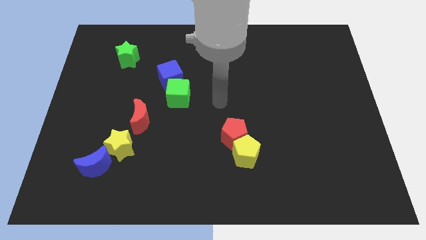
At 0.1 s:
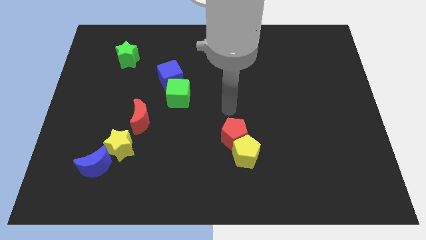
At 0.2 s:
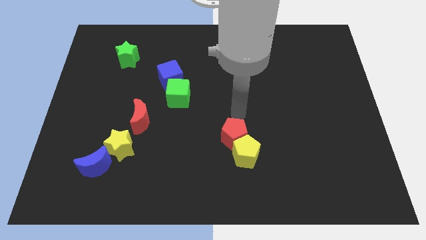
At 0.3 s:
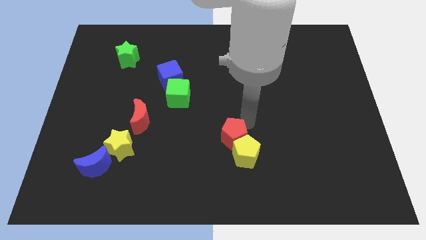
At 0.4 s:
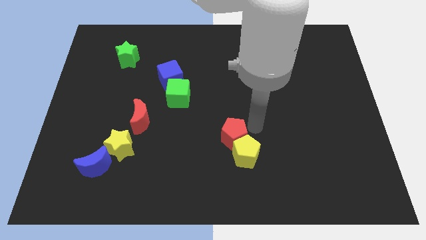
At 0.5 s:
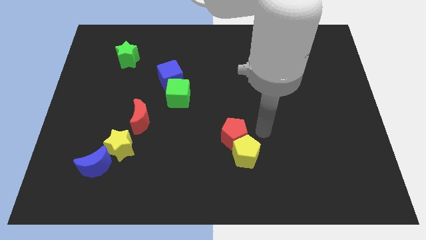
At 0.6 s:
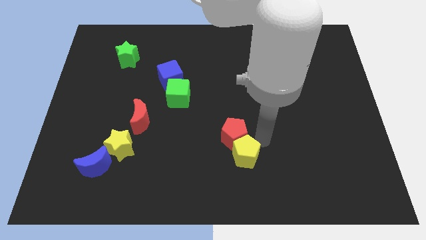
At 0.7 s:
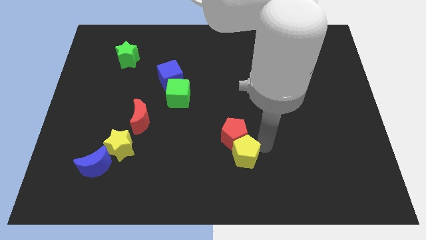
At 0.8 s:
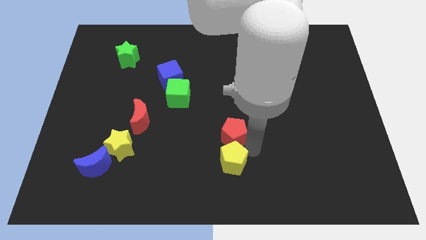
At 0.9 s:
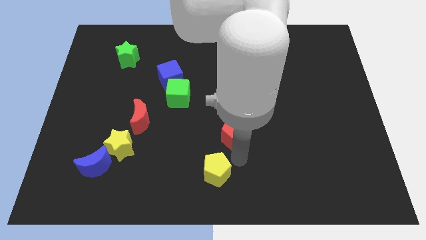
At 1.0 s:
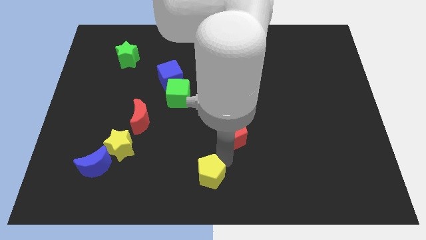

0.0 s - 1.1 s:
move the red pentagon away from the yellow pentagon

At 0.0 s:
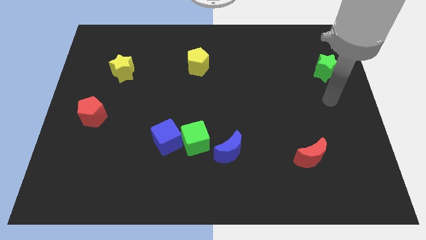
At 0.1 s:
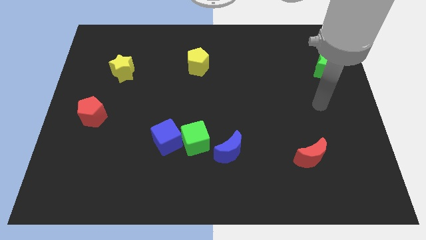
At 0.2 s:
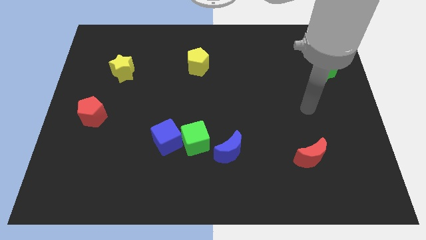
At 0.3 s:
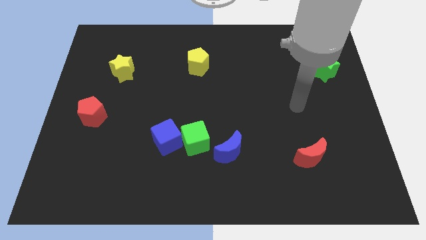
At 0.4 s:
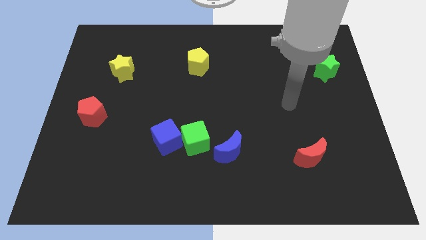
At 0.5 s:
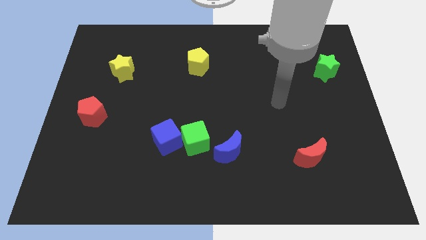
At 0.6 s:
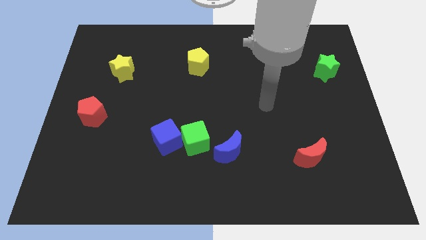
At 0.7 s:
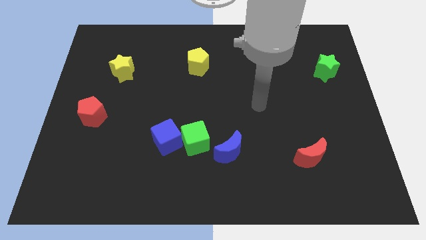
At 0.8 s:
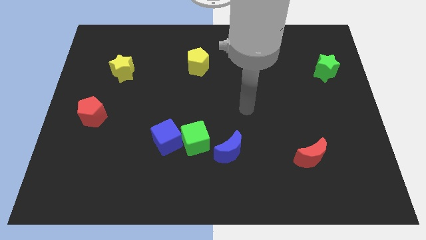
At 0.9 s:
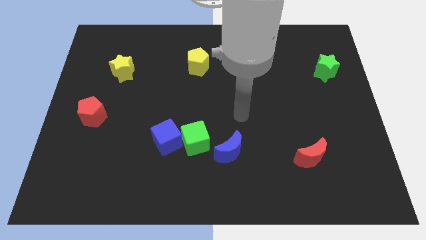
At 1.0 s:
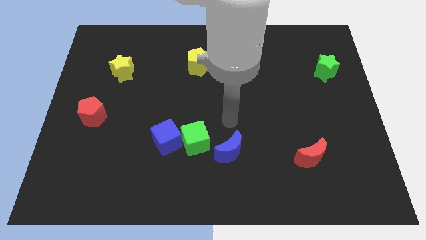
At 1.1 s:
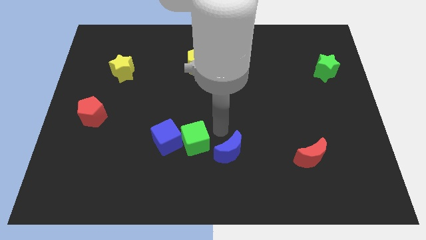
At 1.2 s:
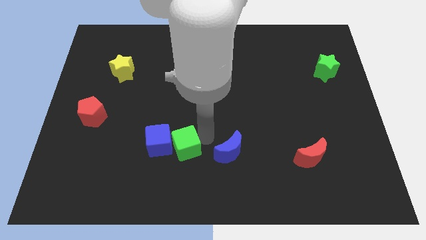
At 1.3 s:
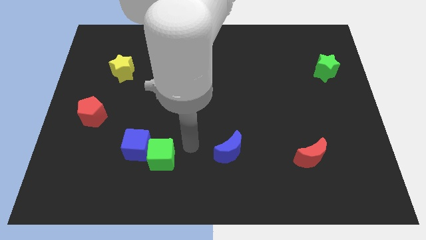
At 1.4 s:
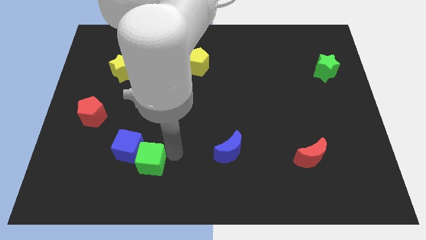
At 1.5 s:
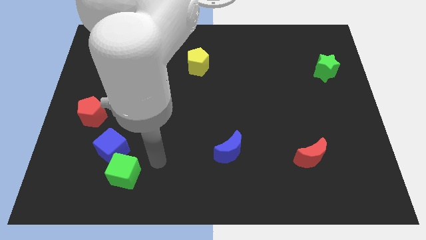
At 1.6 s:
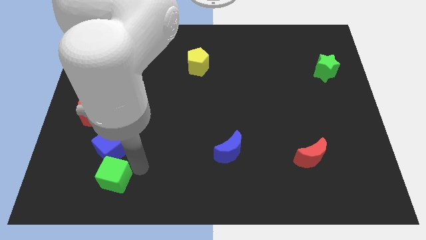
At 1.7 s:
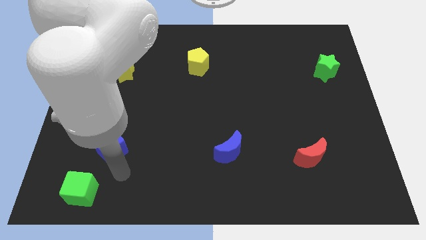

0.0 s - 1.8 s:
move the blue cube away from the green cube

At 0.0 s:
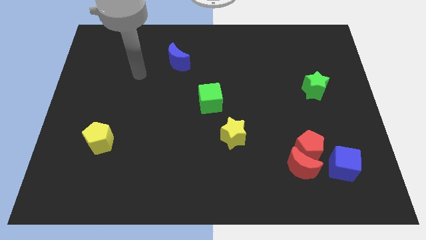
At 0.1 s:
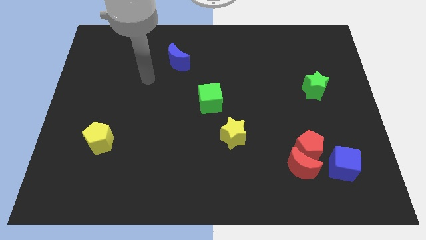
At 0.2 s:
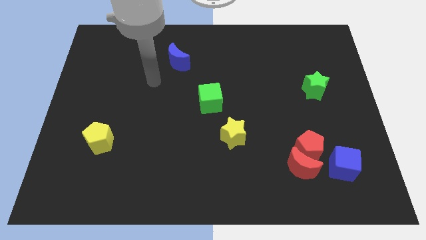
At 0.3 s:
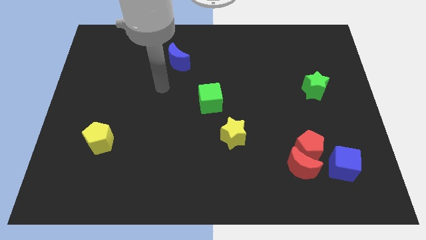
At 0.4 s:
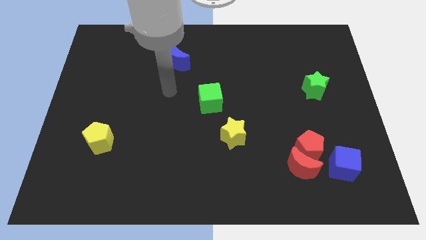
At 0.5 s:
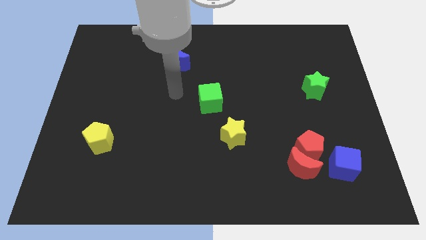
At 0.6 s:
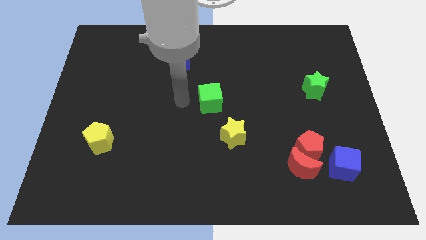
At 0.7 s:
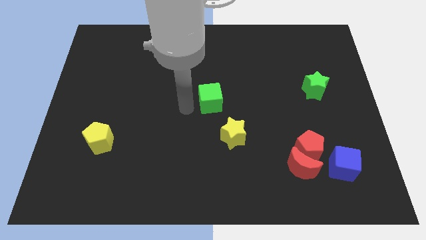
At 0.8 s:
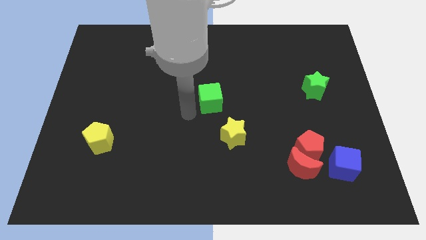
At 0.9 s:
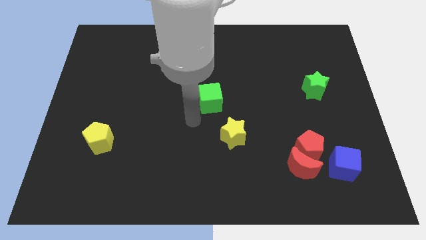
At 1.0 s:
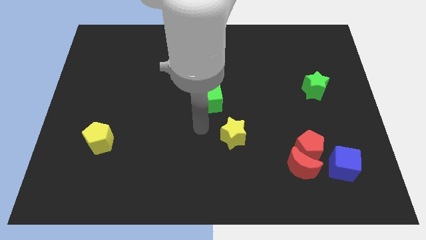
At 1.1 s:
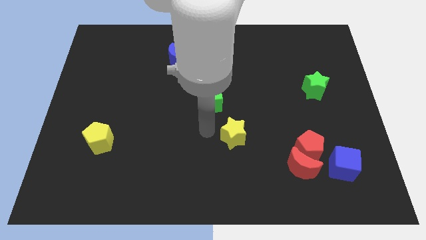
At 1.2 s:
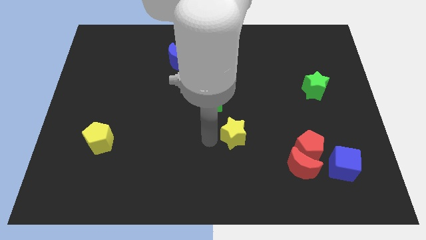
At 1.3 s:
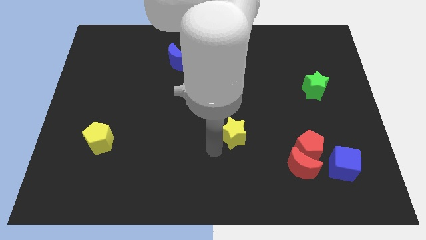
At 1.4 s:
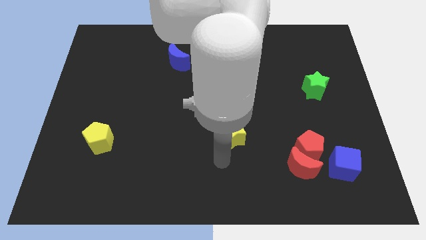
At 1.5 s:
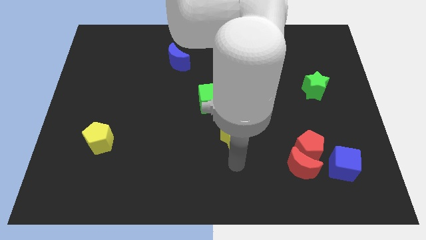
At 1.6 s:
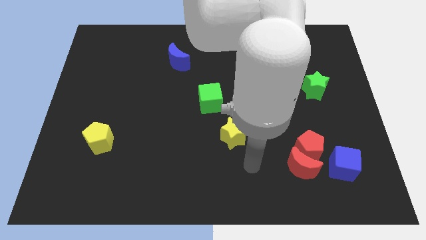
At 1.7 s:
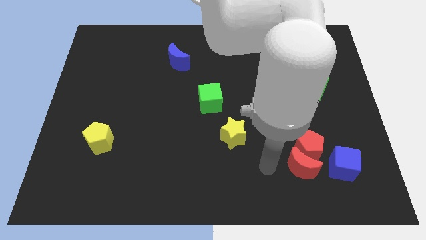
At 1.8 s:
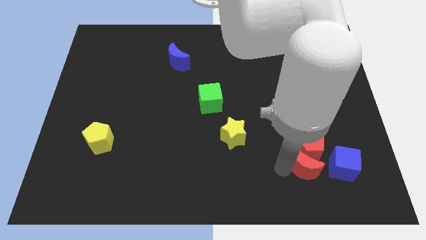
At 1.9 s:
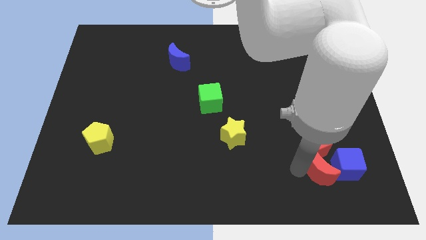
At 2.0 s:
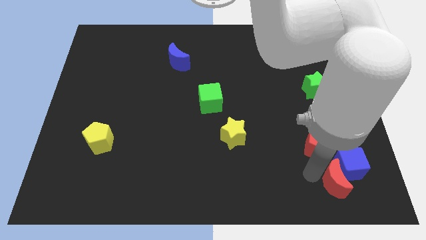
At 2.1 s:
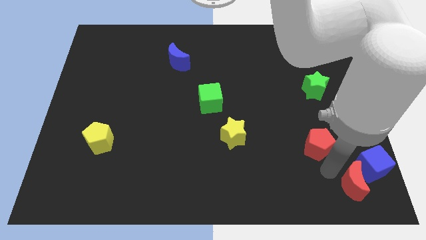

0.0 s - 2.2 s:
pull the red pentagon apart from the red moon and blue cube

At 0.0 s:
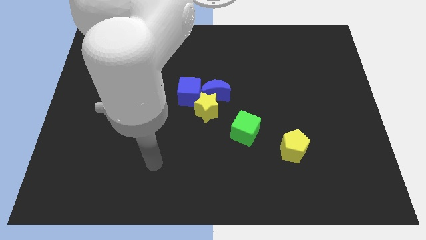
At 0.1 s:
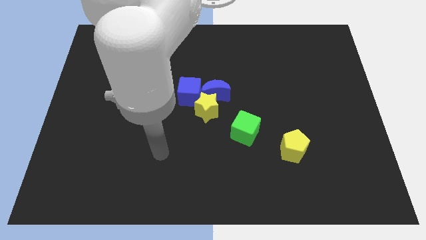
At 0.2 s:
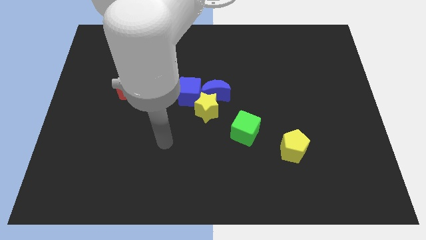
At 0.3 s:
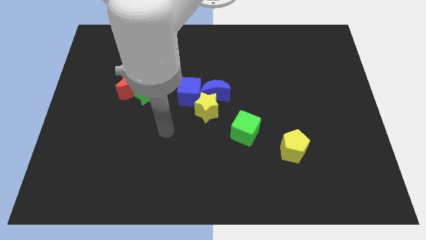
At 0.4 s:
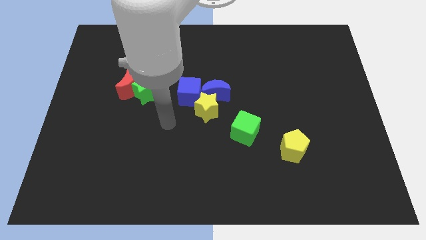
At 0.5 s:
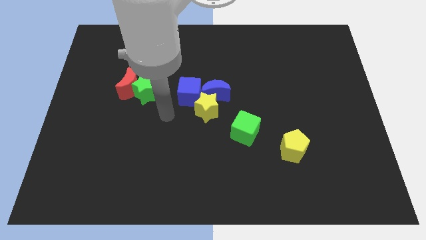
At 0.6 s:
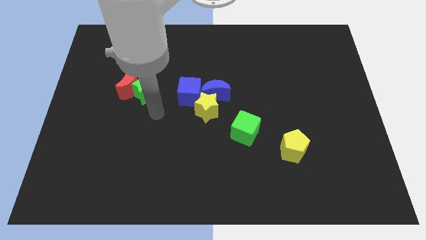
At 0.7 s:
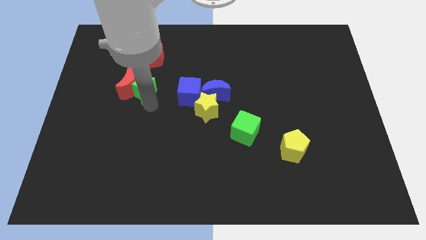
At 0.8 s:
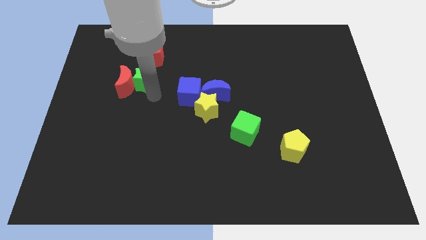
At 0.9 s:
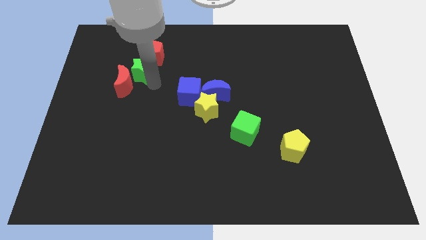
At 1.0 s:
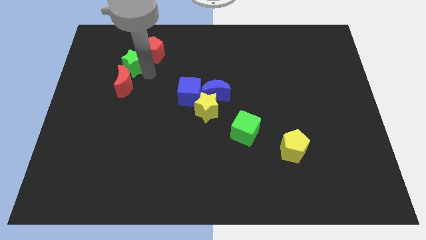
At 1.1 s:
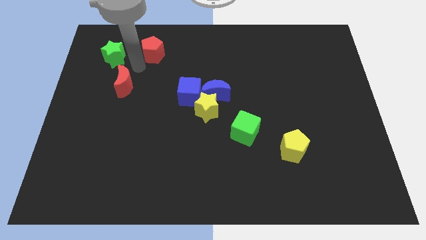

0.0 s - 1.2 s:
pull the red moon apart from the green star

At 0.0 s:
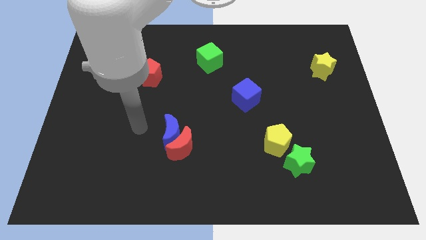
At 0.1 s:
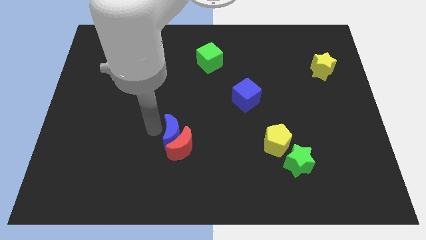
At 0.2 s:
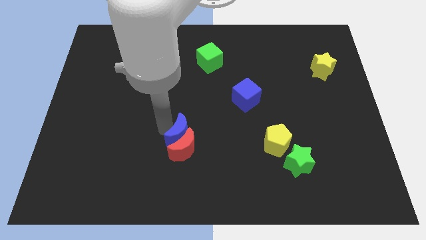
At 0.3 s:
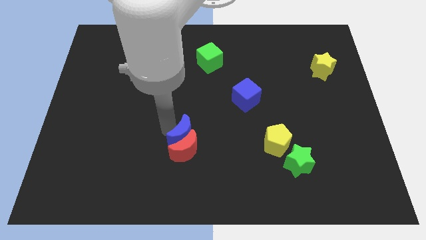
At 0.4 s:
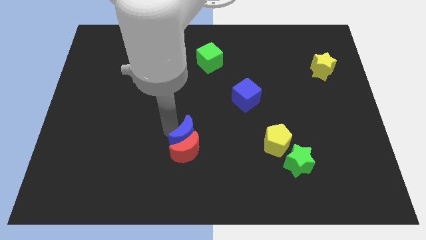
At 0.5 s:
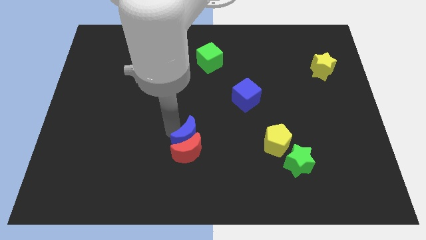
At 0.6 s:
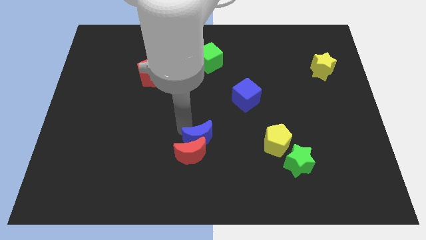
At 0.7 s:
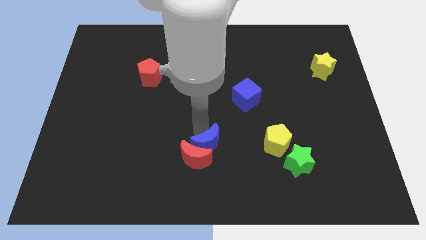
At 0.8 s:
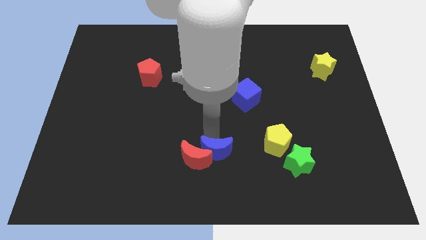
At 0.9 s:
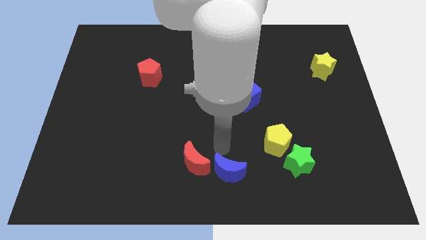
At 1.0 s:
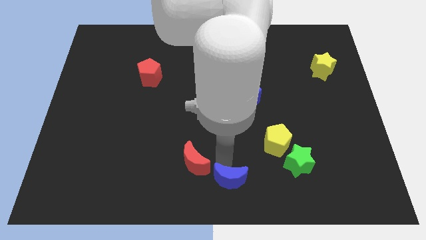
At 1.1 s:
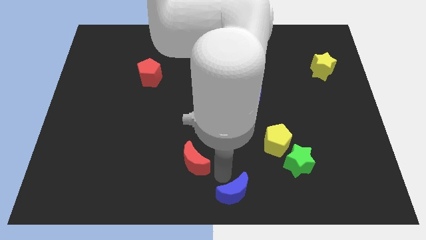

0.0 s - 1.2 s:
pull the red moon apart from the blue moon

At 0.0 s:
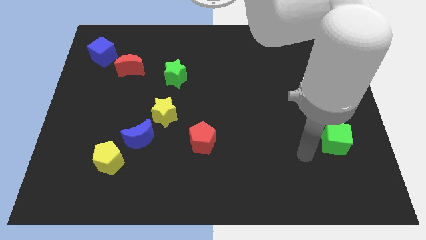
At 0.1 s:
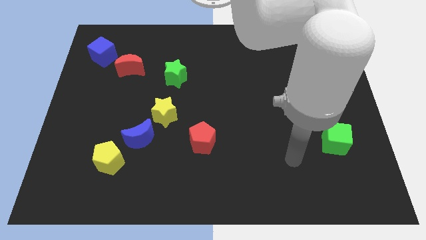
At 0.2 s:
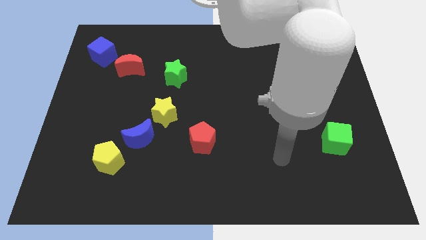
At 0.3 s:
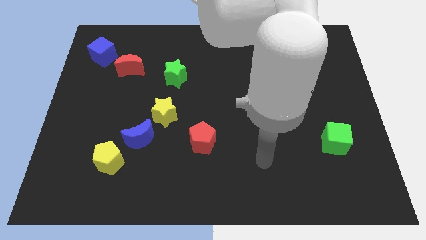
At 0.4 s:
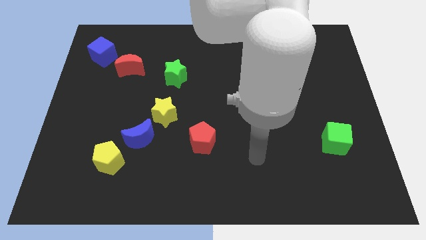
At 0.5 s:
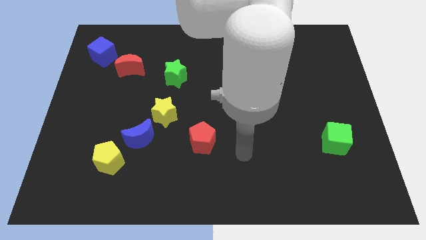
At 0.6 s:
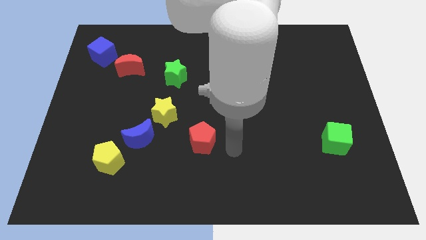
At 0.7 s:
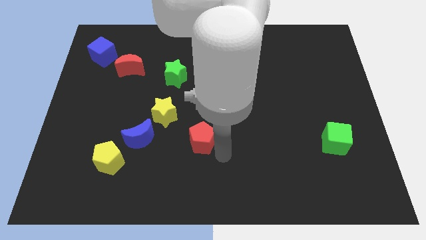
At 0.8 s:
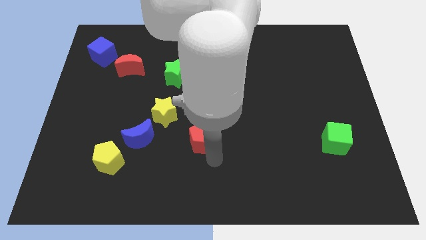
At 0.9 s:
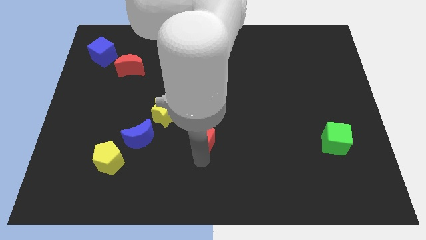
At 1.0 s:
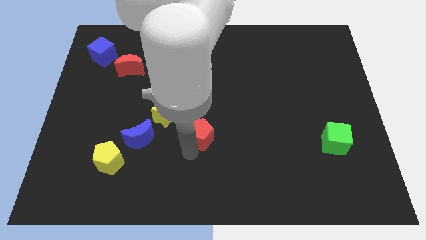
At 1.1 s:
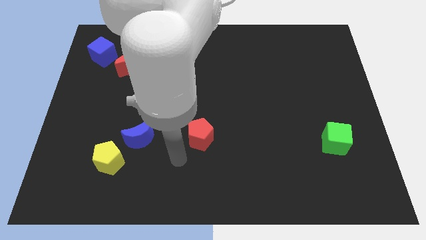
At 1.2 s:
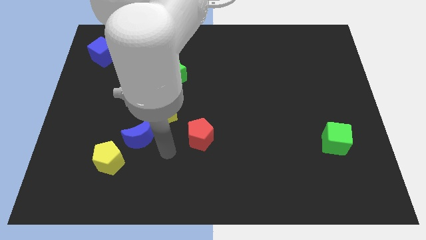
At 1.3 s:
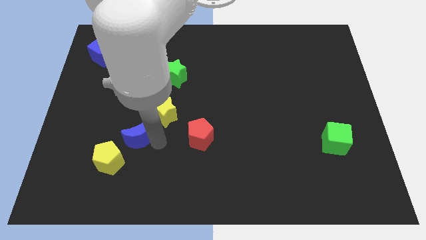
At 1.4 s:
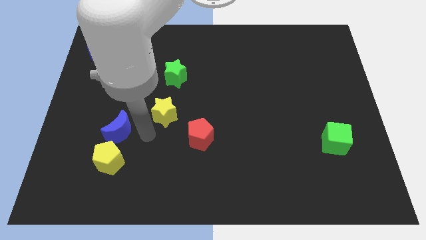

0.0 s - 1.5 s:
separate the yellow star from the blue moon

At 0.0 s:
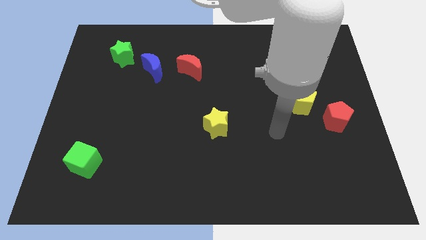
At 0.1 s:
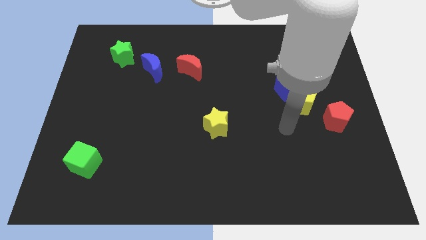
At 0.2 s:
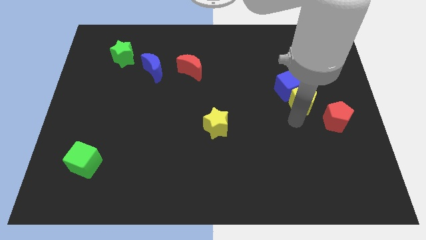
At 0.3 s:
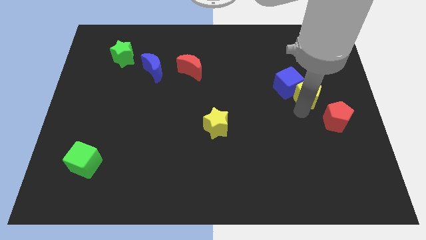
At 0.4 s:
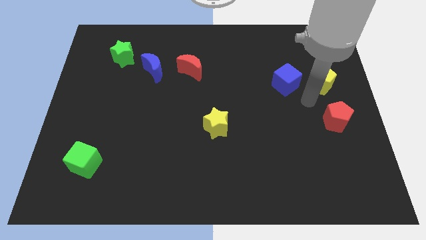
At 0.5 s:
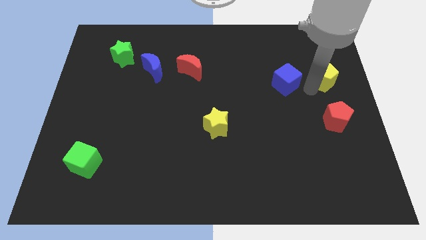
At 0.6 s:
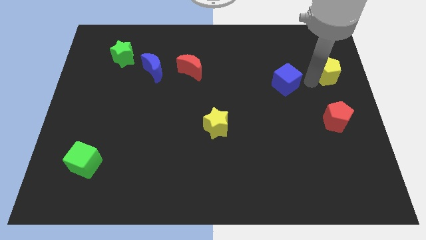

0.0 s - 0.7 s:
move the blue cube away from the yellow pentagon
